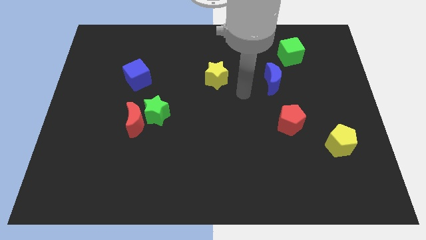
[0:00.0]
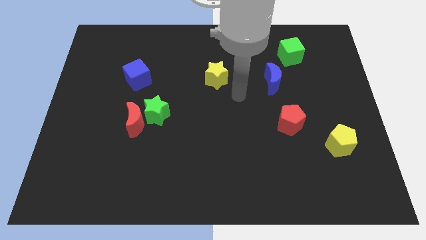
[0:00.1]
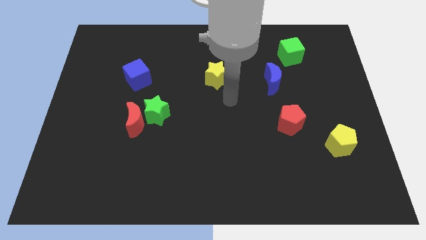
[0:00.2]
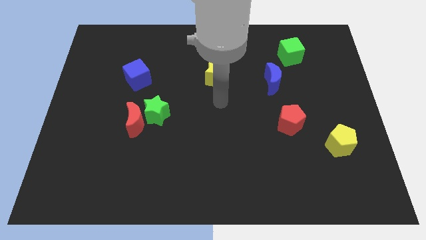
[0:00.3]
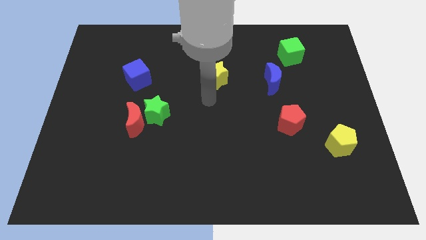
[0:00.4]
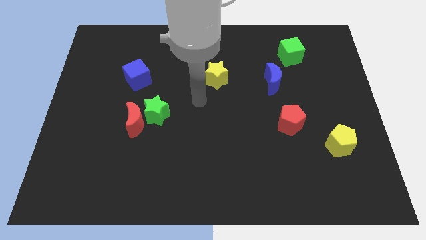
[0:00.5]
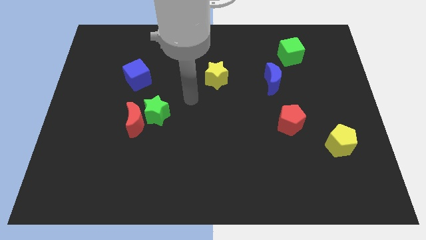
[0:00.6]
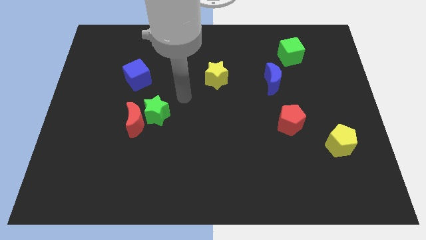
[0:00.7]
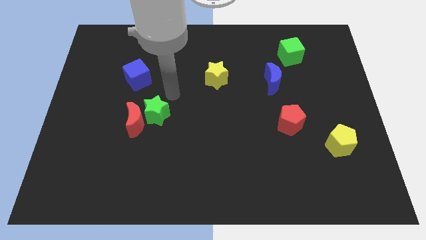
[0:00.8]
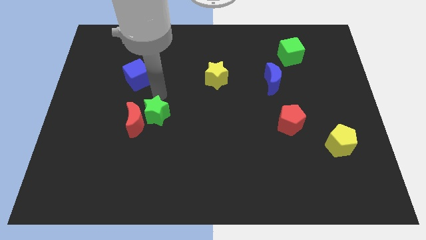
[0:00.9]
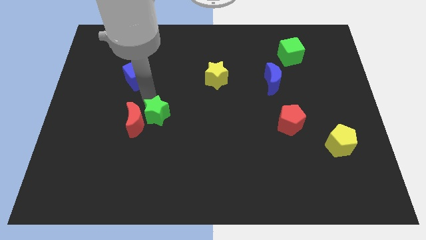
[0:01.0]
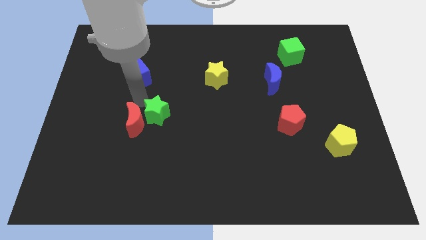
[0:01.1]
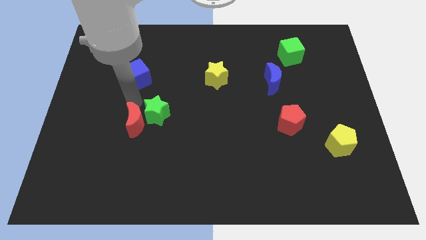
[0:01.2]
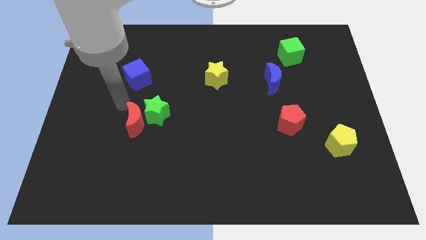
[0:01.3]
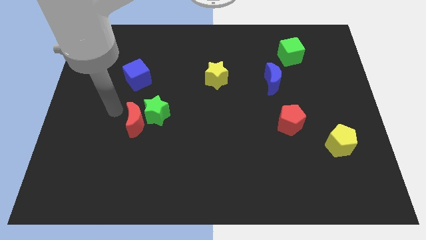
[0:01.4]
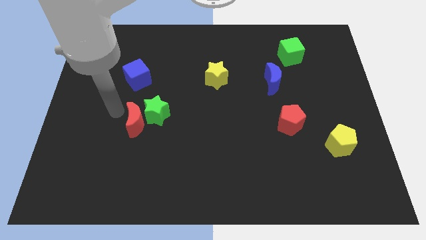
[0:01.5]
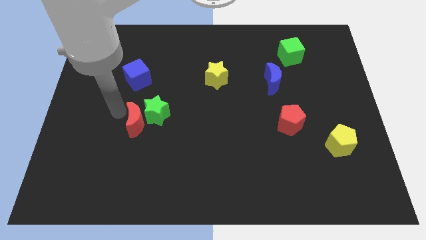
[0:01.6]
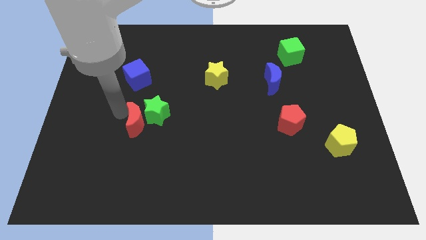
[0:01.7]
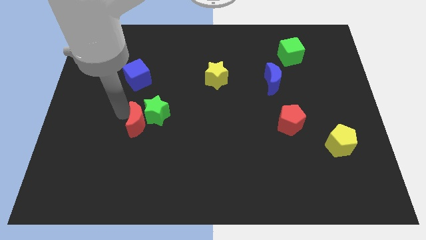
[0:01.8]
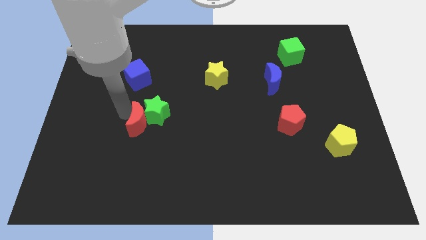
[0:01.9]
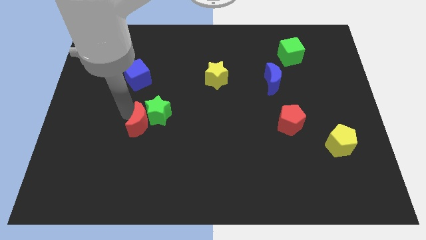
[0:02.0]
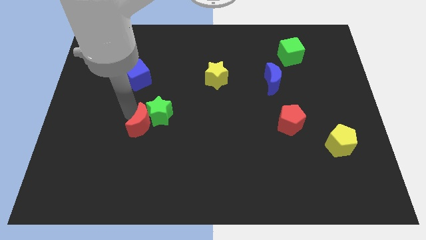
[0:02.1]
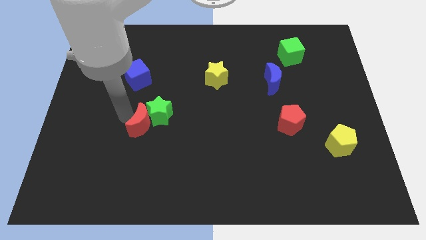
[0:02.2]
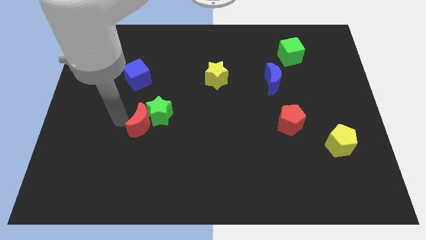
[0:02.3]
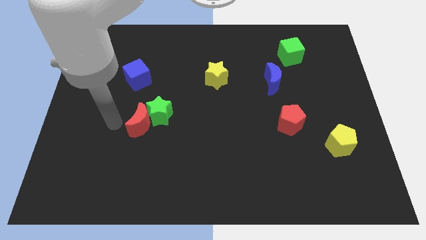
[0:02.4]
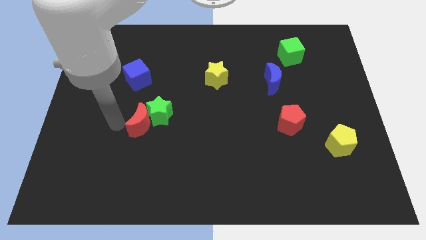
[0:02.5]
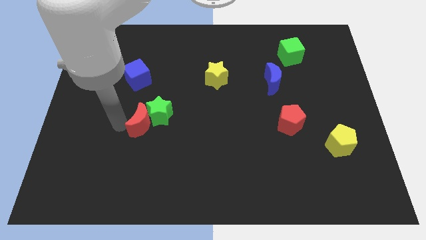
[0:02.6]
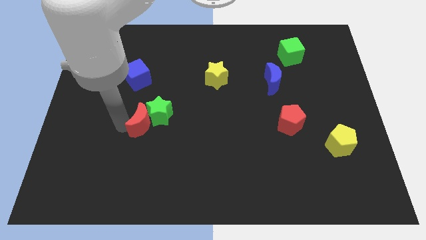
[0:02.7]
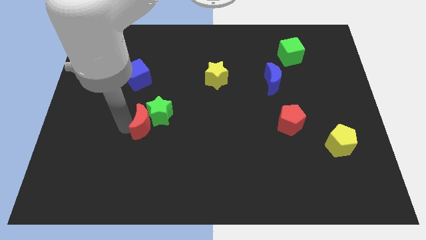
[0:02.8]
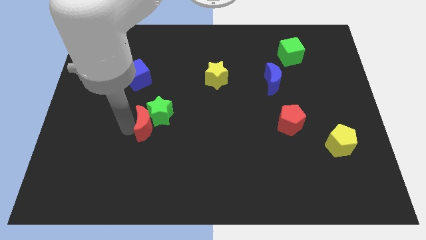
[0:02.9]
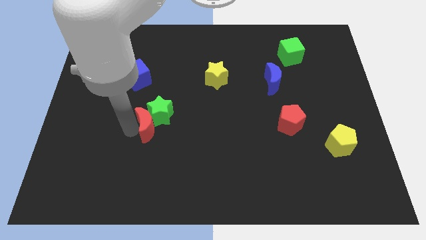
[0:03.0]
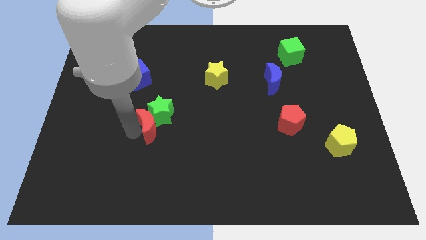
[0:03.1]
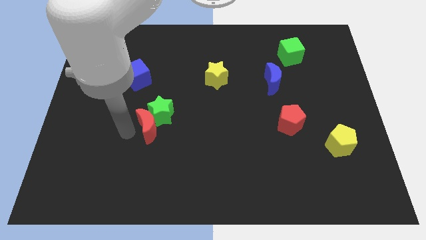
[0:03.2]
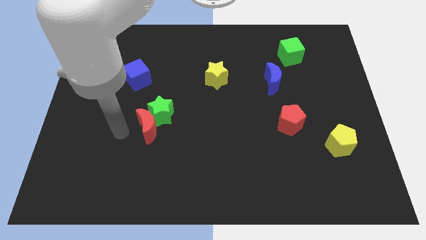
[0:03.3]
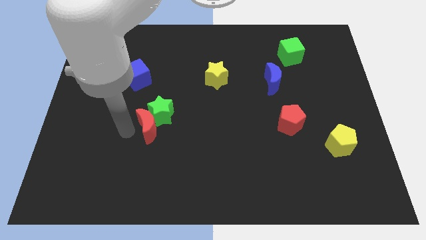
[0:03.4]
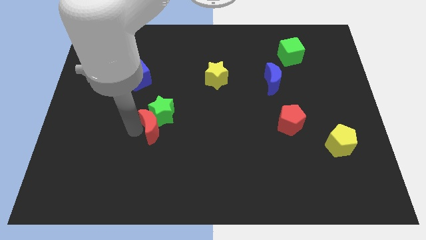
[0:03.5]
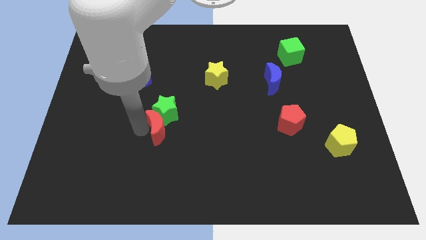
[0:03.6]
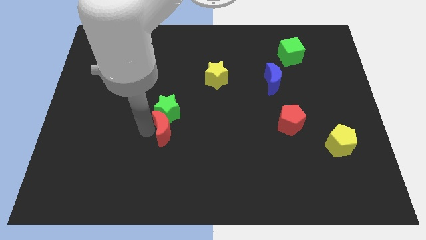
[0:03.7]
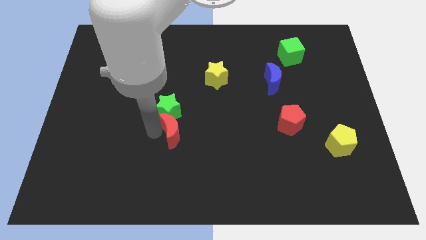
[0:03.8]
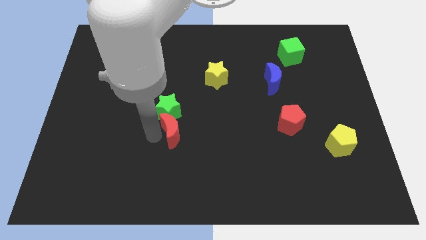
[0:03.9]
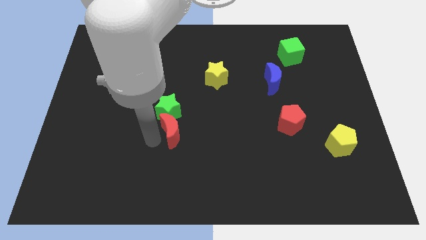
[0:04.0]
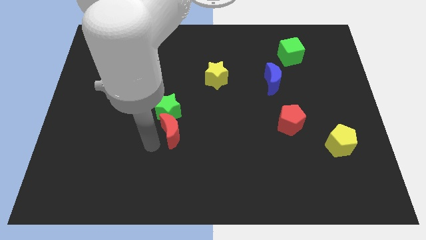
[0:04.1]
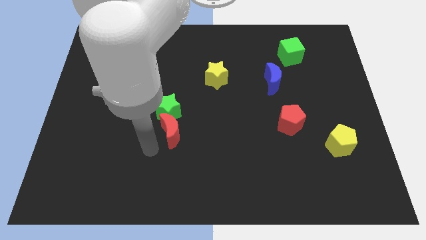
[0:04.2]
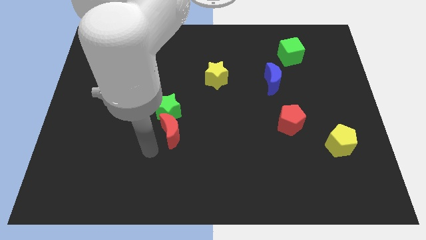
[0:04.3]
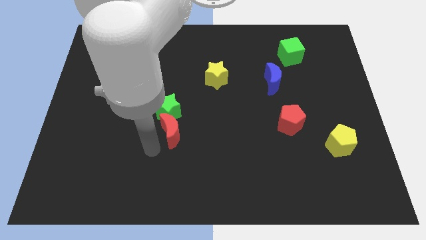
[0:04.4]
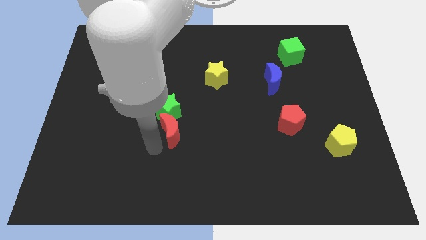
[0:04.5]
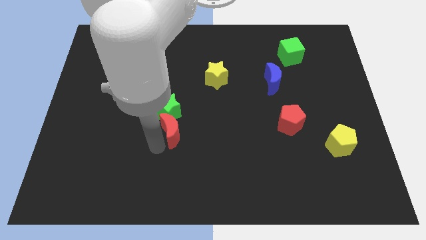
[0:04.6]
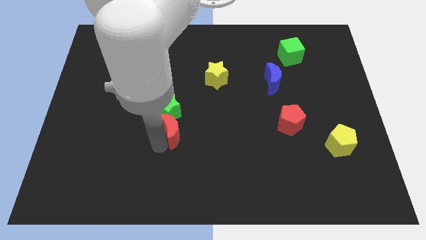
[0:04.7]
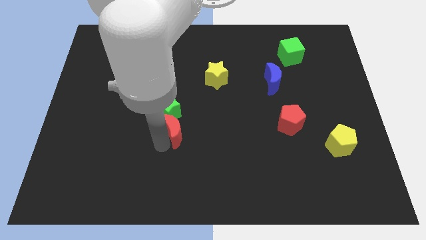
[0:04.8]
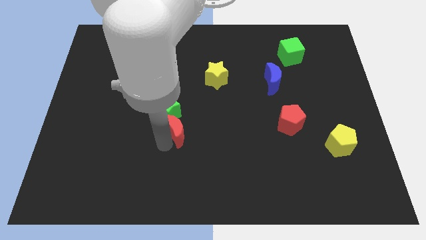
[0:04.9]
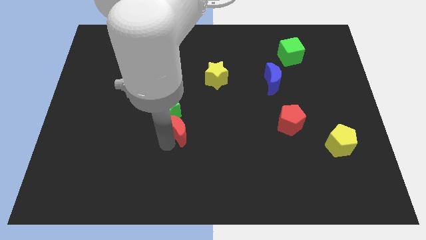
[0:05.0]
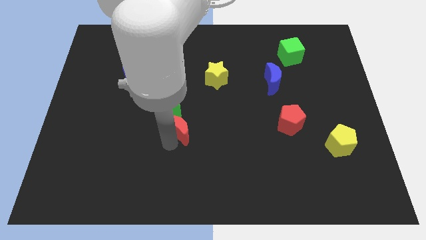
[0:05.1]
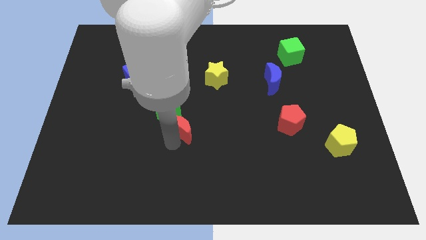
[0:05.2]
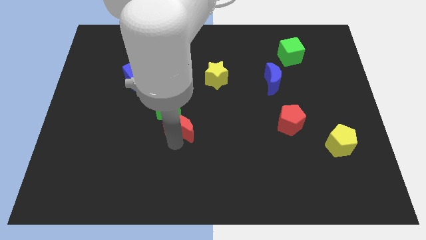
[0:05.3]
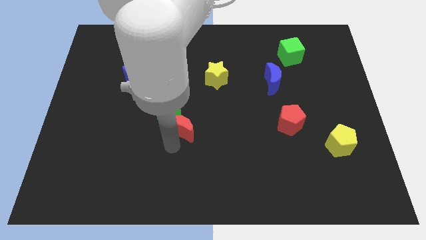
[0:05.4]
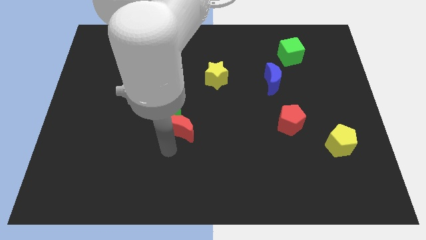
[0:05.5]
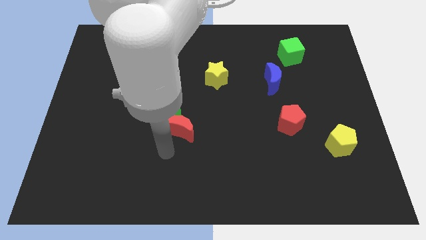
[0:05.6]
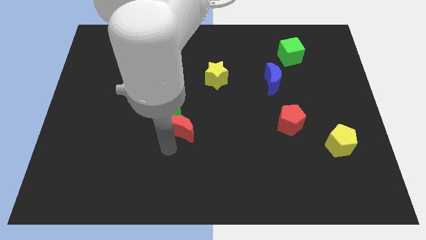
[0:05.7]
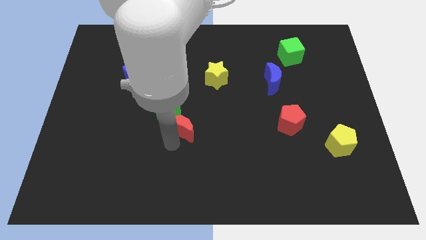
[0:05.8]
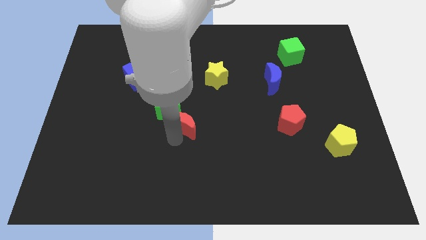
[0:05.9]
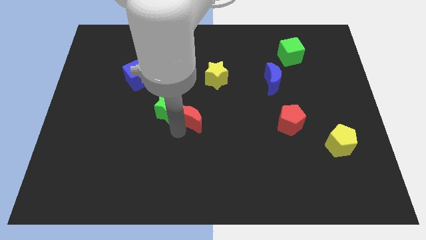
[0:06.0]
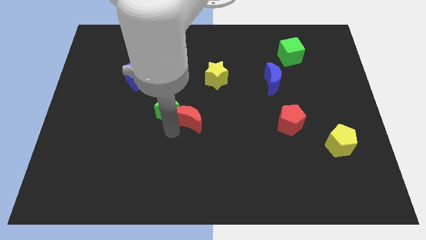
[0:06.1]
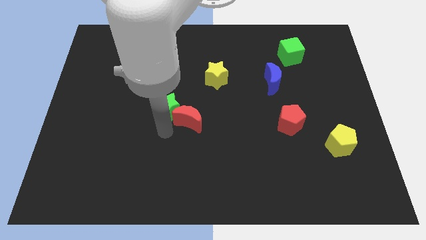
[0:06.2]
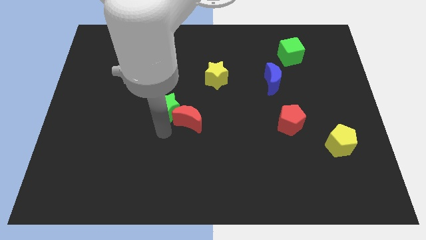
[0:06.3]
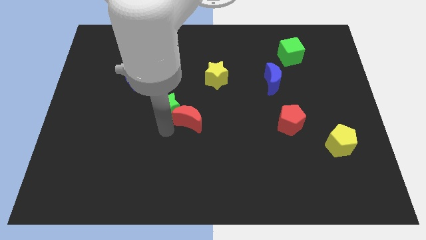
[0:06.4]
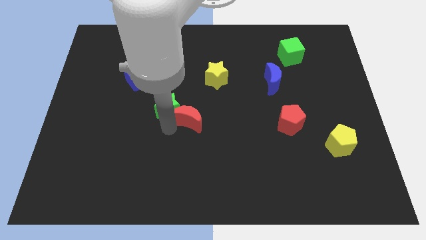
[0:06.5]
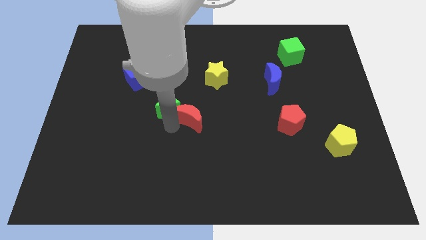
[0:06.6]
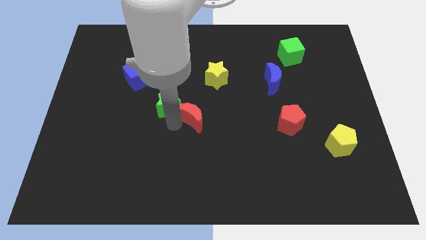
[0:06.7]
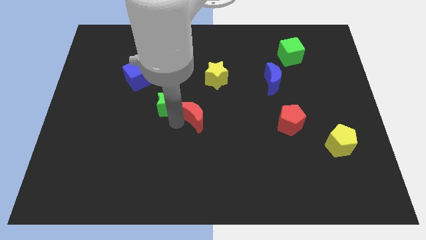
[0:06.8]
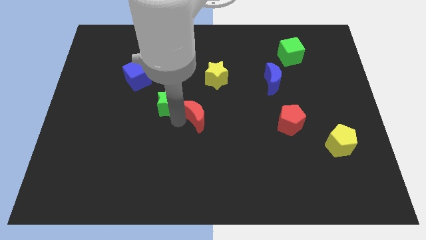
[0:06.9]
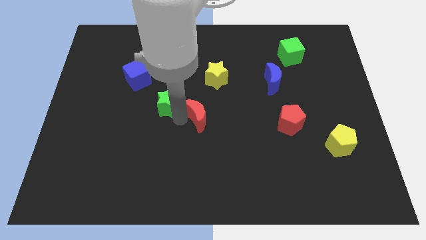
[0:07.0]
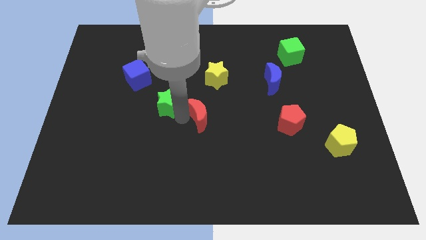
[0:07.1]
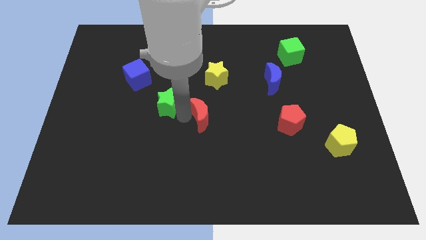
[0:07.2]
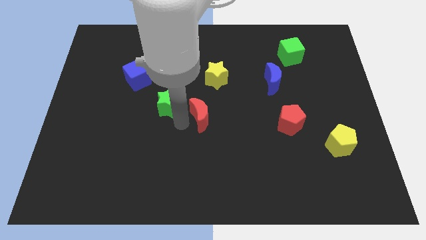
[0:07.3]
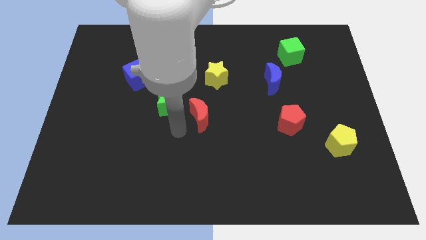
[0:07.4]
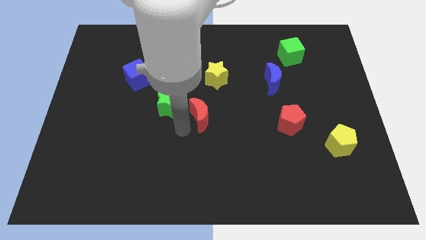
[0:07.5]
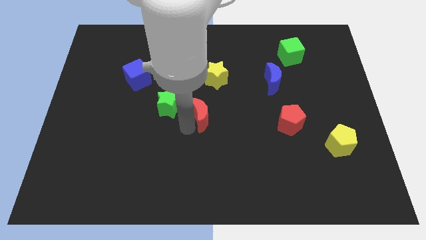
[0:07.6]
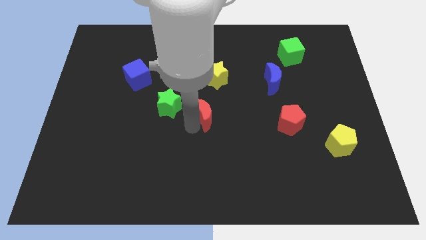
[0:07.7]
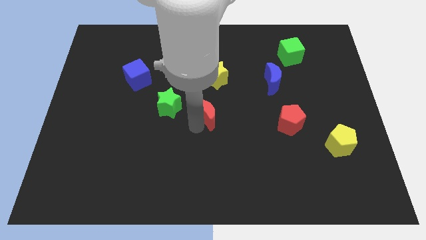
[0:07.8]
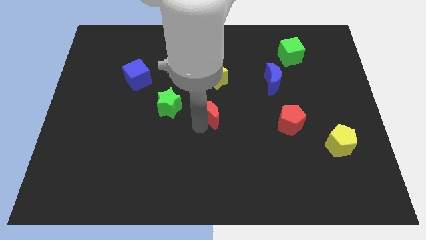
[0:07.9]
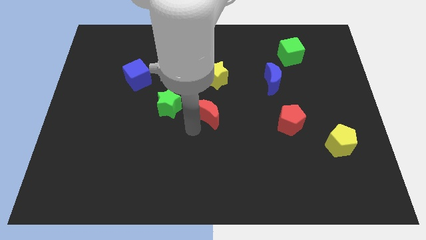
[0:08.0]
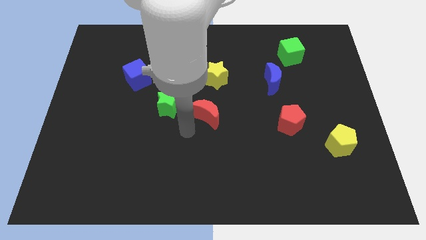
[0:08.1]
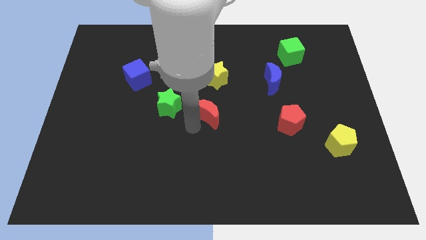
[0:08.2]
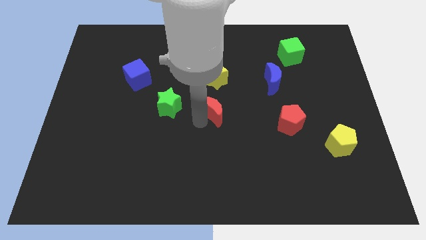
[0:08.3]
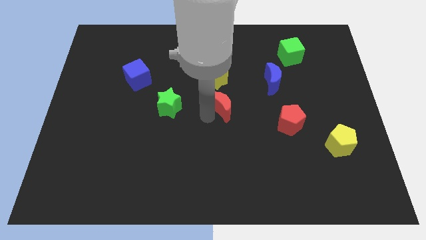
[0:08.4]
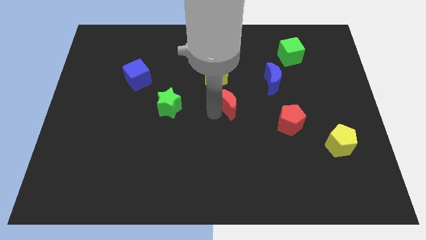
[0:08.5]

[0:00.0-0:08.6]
push the red moon diagonally down and to the right of the yellow star
